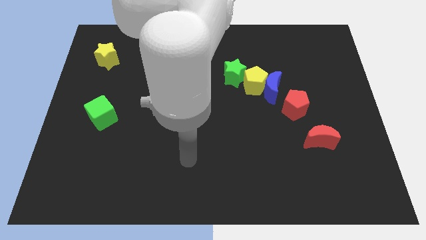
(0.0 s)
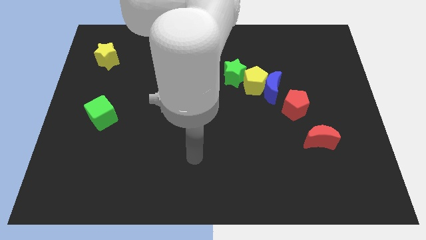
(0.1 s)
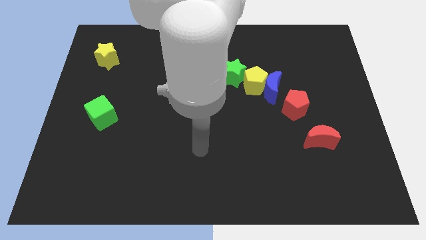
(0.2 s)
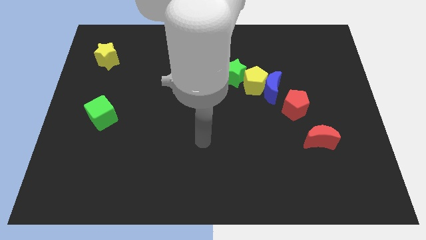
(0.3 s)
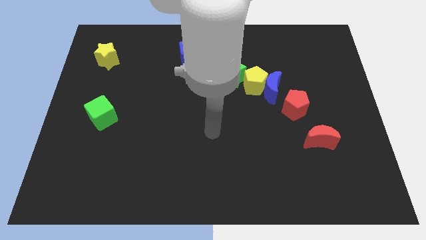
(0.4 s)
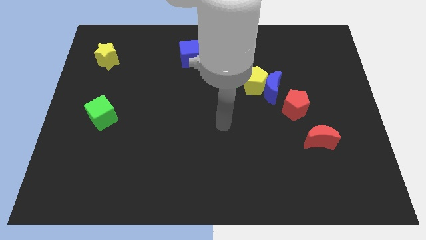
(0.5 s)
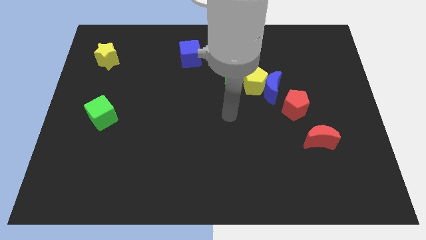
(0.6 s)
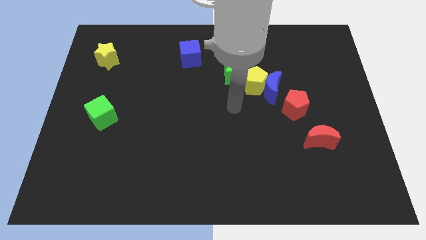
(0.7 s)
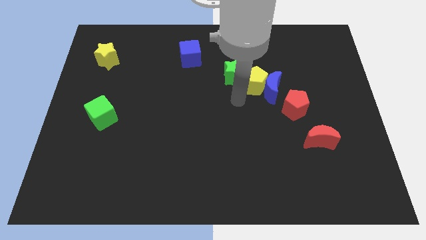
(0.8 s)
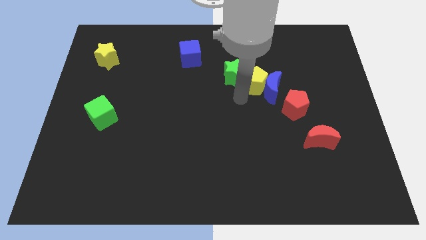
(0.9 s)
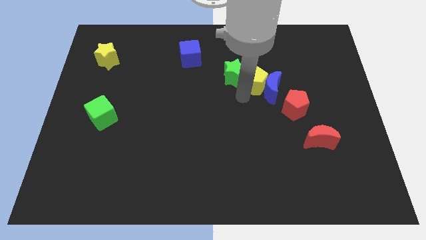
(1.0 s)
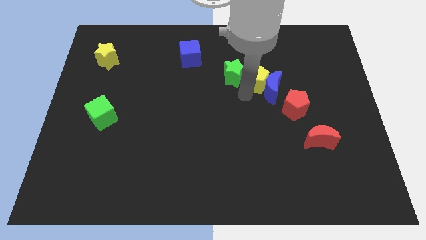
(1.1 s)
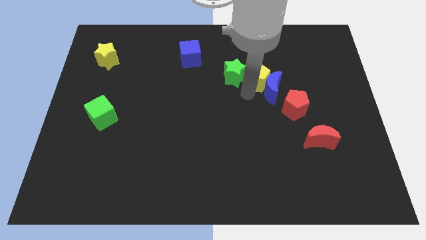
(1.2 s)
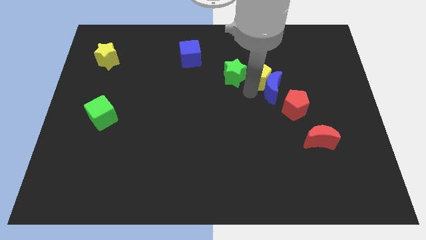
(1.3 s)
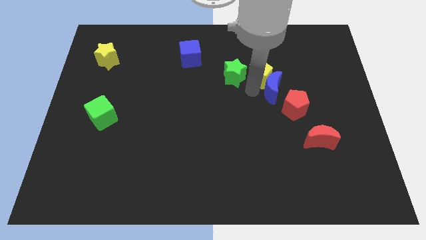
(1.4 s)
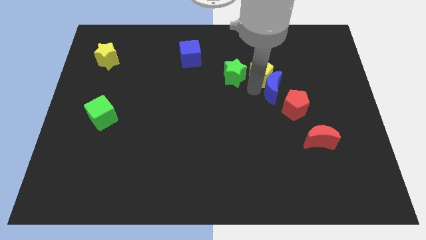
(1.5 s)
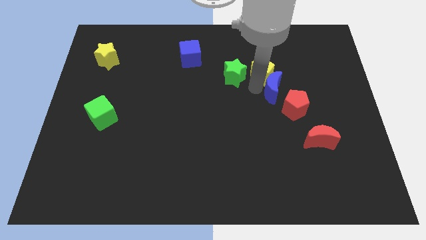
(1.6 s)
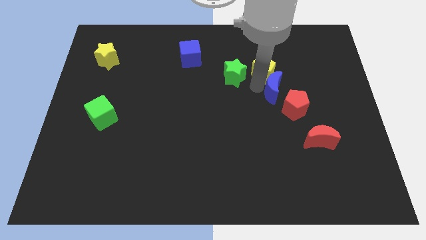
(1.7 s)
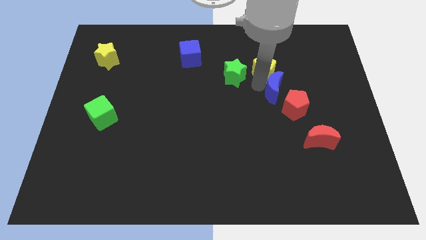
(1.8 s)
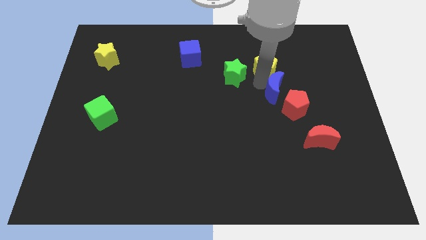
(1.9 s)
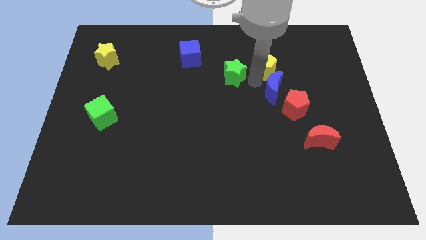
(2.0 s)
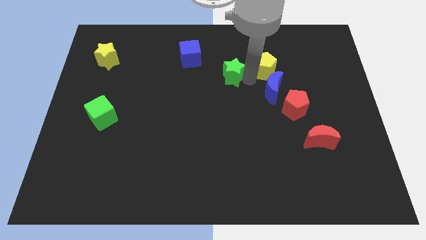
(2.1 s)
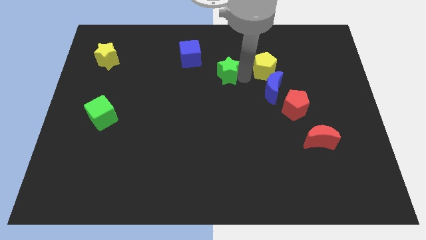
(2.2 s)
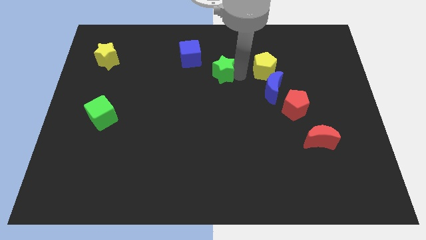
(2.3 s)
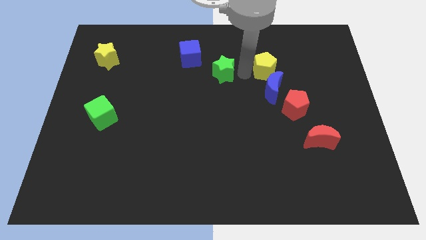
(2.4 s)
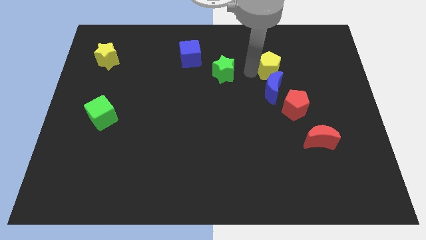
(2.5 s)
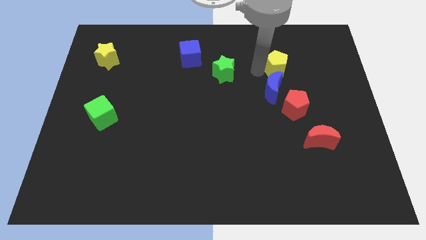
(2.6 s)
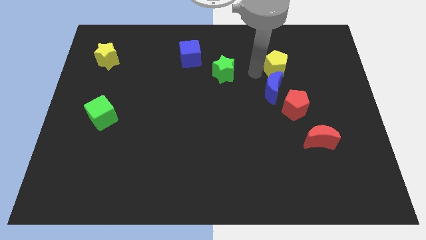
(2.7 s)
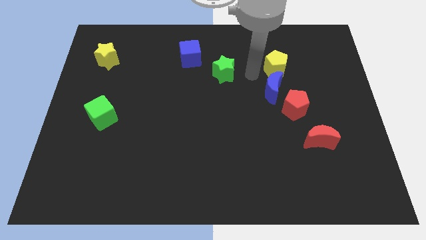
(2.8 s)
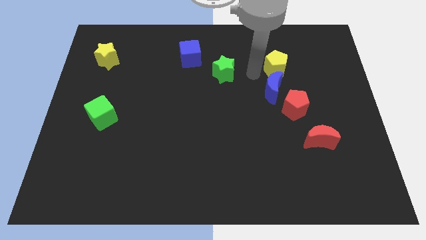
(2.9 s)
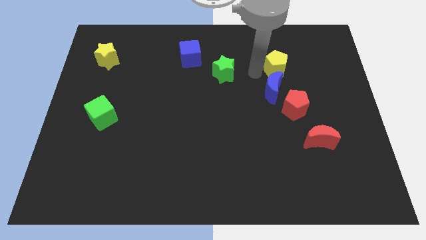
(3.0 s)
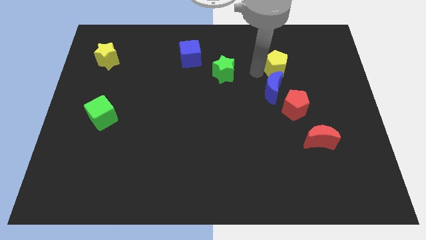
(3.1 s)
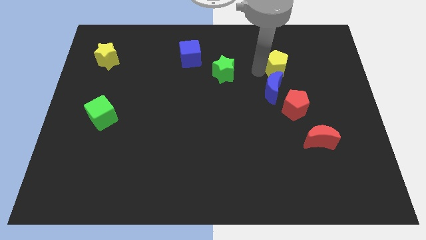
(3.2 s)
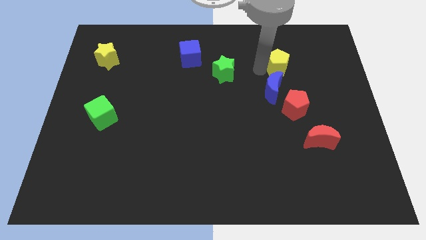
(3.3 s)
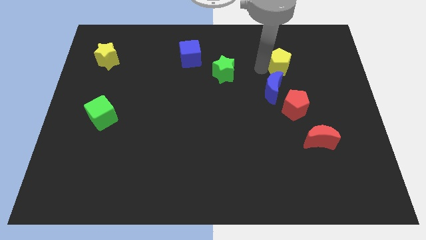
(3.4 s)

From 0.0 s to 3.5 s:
move the yellow pentagon away from the blue moon and green star

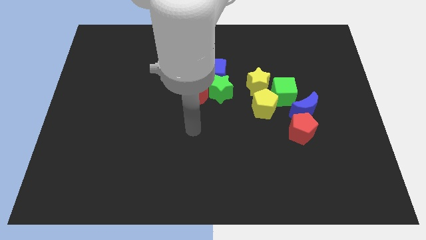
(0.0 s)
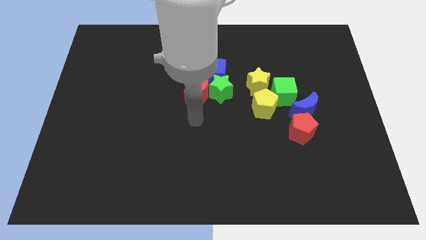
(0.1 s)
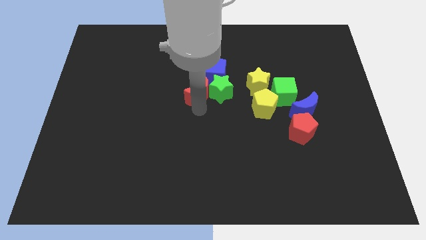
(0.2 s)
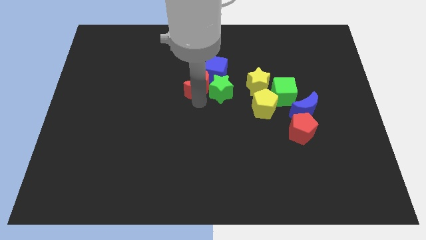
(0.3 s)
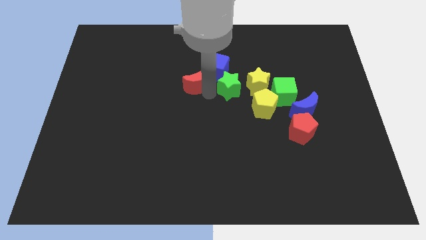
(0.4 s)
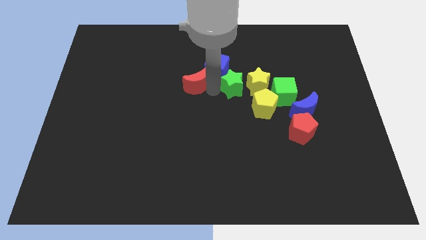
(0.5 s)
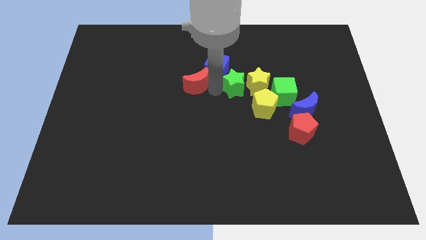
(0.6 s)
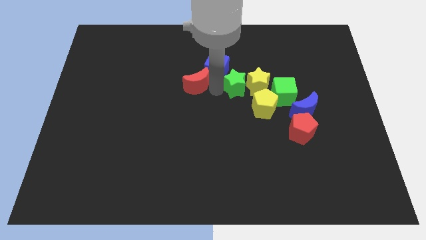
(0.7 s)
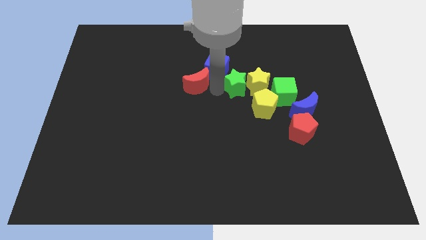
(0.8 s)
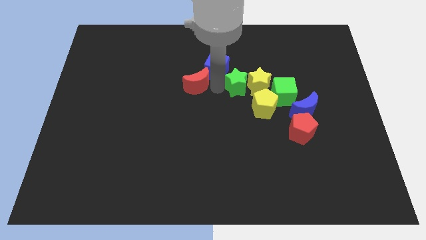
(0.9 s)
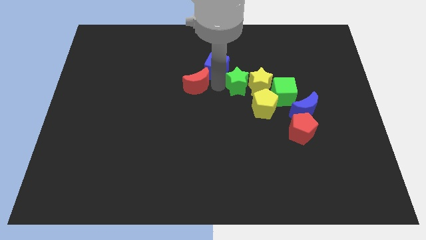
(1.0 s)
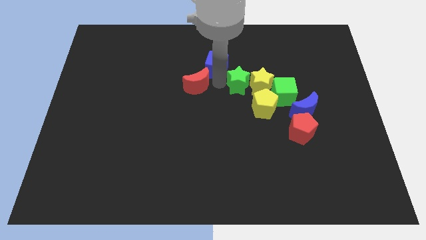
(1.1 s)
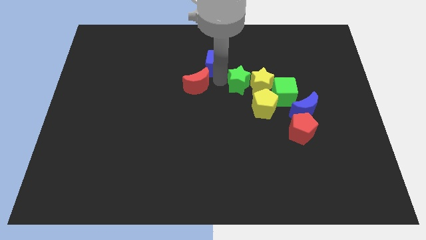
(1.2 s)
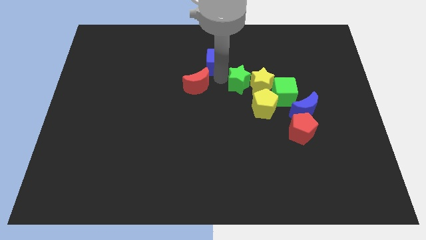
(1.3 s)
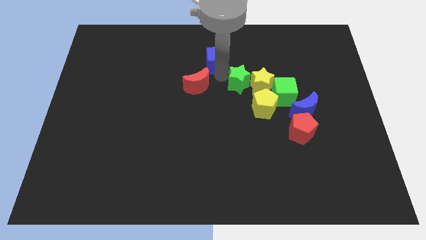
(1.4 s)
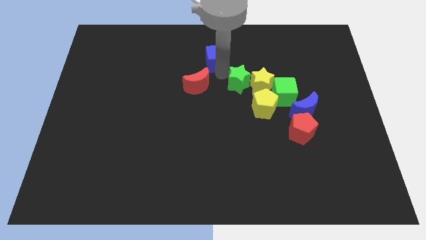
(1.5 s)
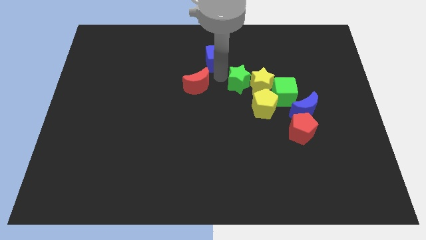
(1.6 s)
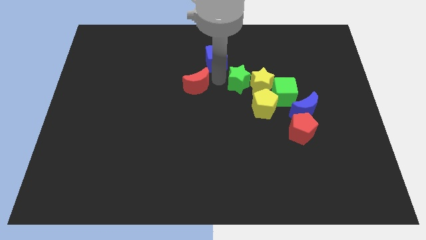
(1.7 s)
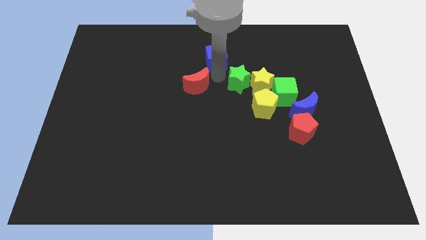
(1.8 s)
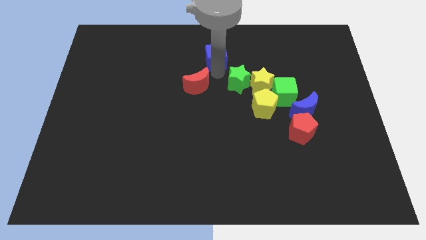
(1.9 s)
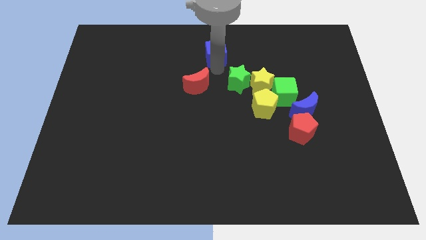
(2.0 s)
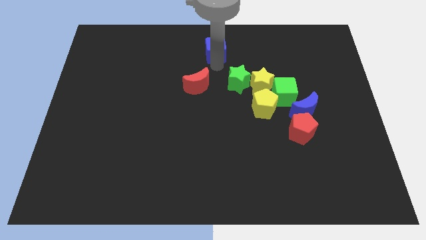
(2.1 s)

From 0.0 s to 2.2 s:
move the blue cube away from the green star and red moon

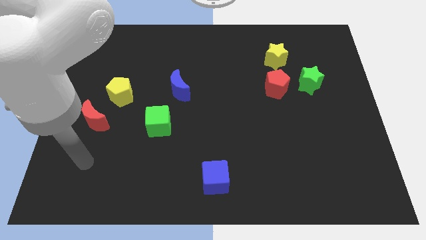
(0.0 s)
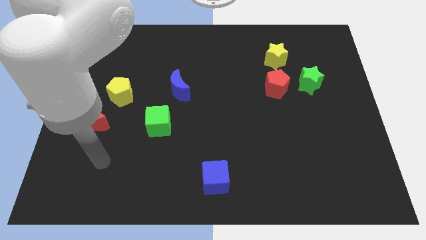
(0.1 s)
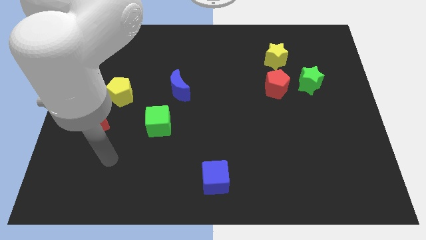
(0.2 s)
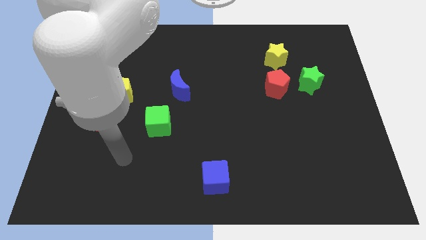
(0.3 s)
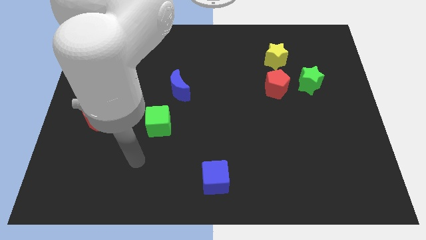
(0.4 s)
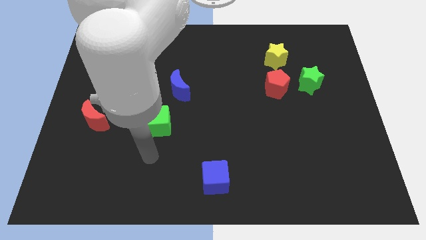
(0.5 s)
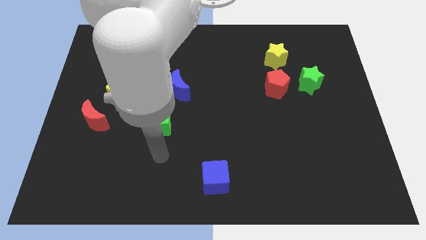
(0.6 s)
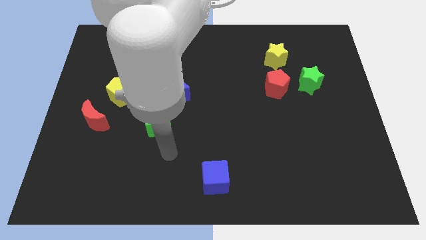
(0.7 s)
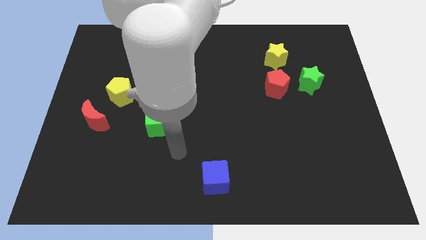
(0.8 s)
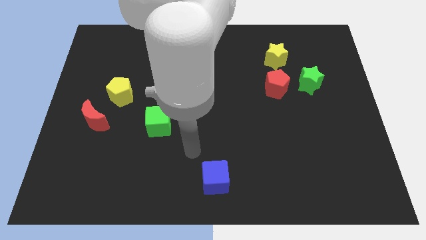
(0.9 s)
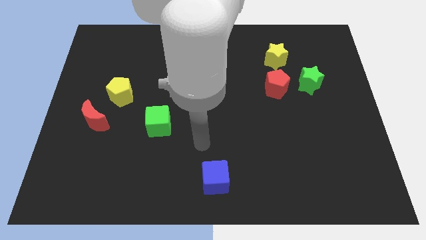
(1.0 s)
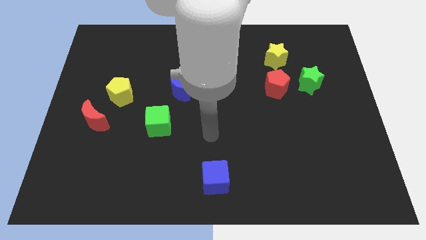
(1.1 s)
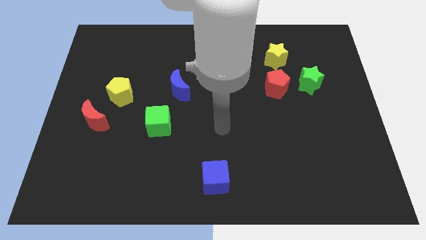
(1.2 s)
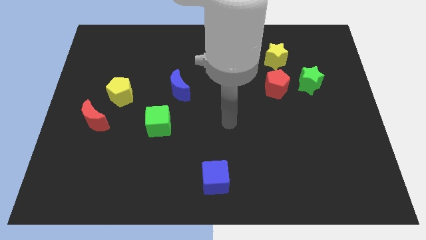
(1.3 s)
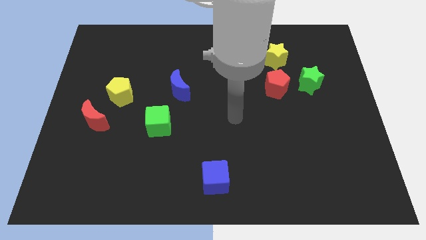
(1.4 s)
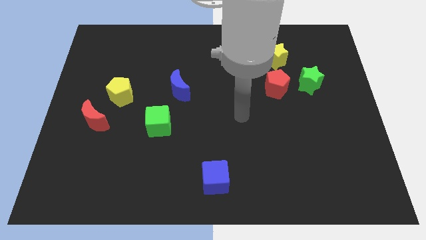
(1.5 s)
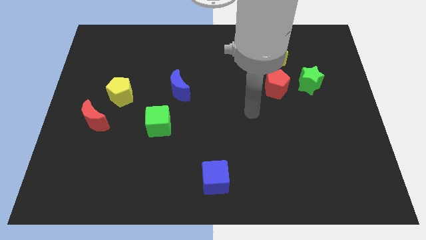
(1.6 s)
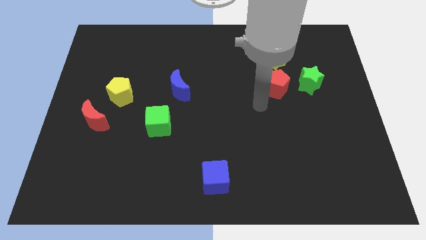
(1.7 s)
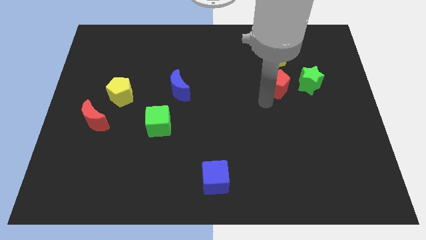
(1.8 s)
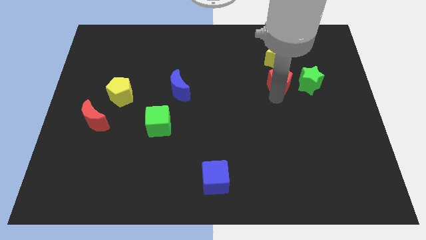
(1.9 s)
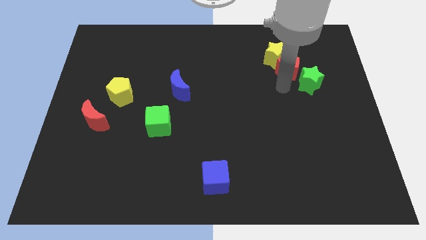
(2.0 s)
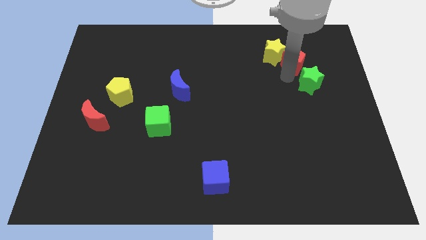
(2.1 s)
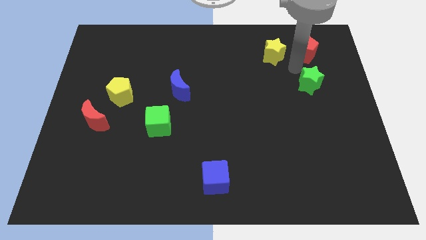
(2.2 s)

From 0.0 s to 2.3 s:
pull the green star apart from the red pentagon

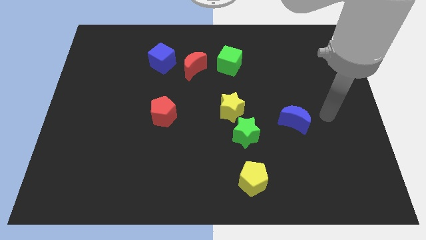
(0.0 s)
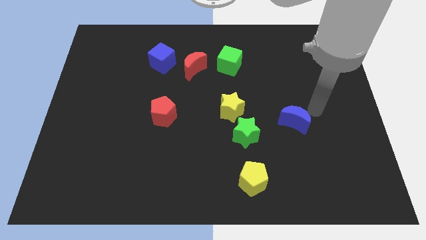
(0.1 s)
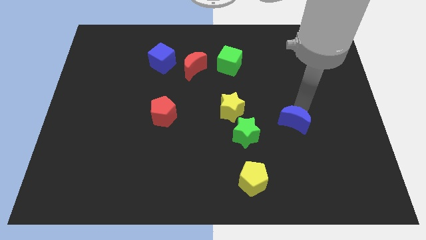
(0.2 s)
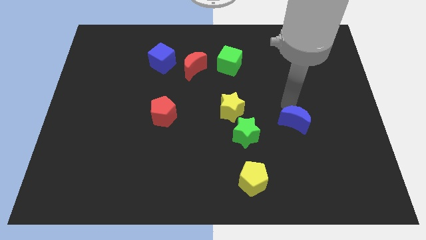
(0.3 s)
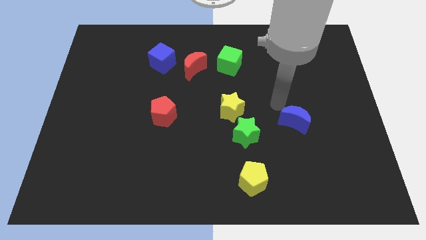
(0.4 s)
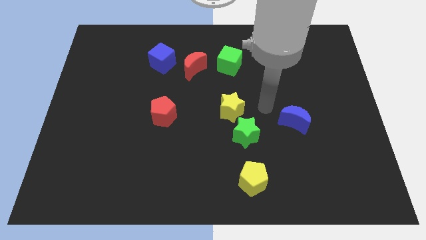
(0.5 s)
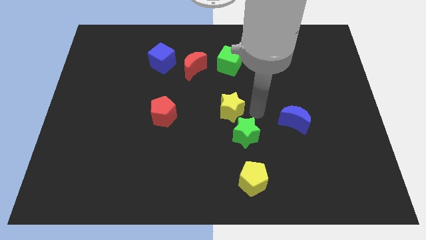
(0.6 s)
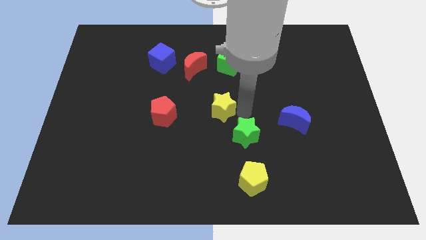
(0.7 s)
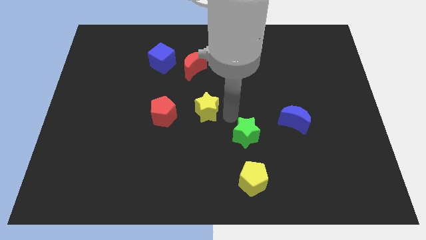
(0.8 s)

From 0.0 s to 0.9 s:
separate the green star from the yellow star

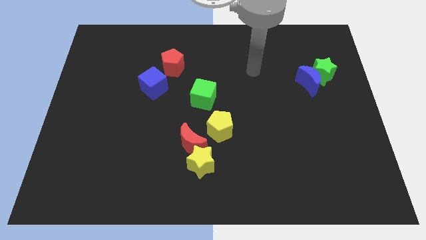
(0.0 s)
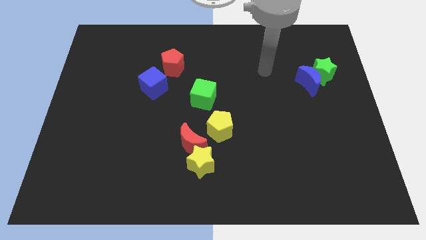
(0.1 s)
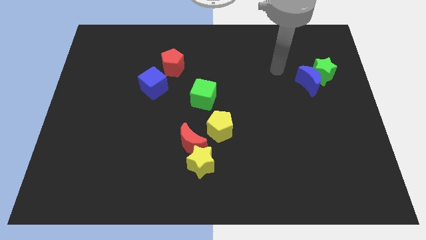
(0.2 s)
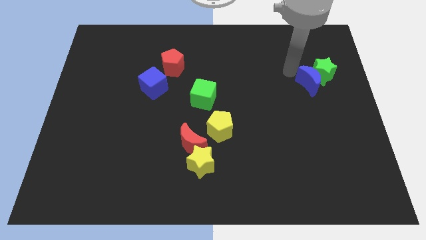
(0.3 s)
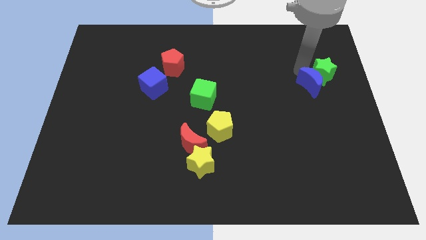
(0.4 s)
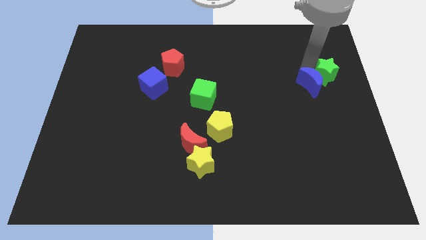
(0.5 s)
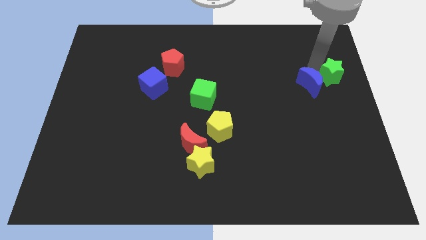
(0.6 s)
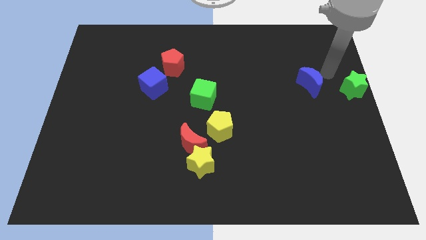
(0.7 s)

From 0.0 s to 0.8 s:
pull the blue moon apart from the green star
